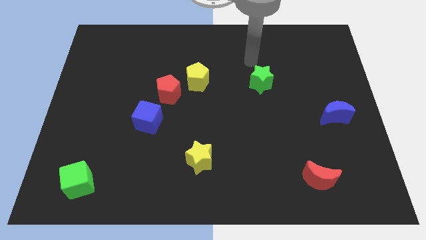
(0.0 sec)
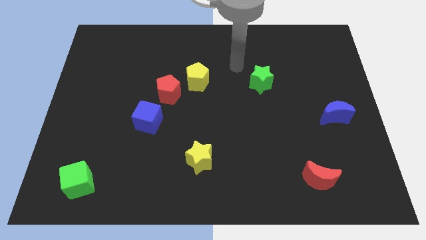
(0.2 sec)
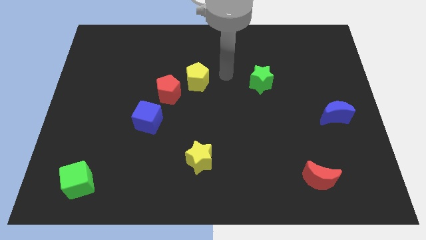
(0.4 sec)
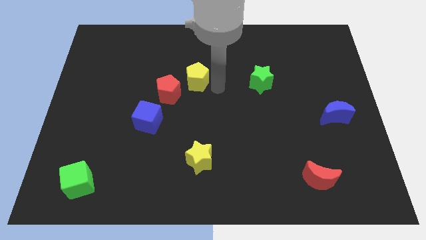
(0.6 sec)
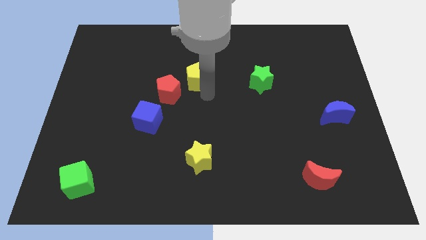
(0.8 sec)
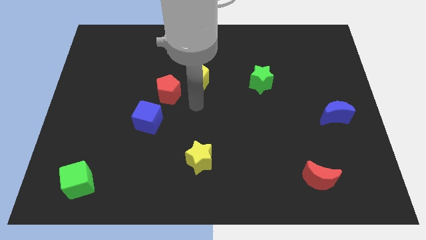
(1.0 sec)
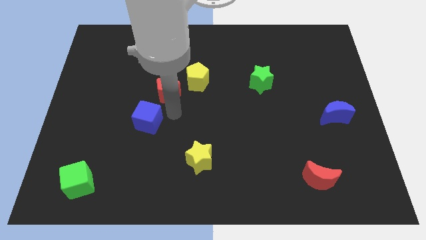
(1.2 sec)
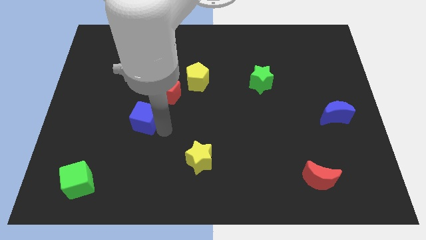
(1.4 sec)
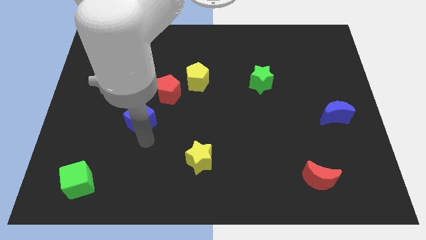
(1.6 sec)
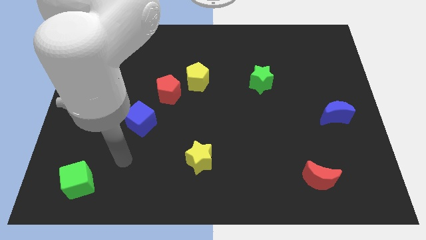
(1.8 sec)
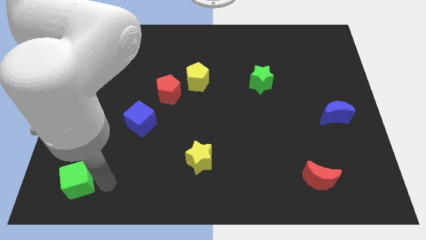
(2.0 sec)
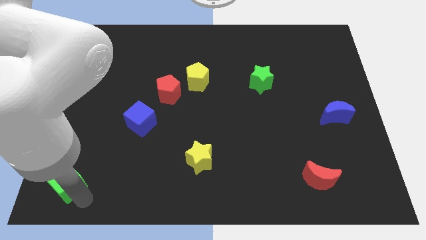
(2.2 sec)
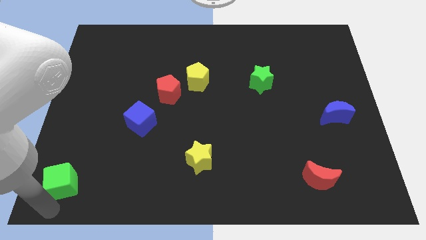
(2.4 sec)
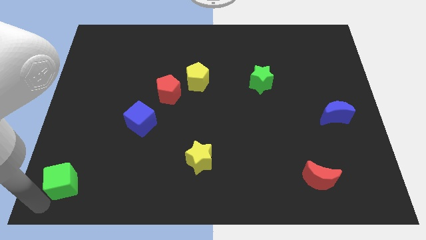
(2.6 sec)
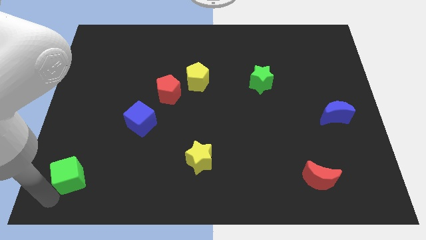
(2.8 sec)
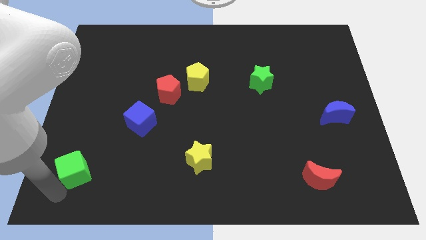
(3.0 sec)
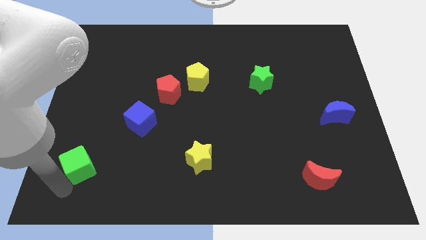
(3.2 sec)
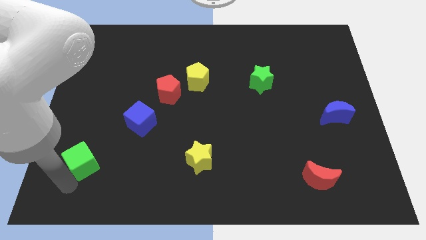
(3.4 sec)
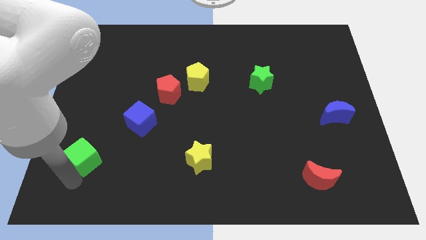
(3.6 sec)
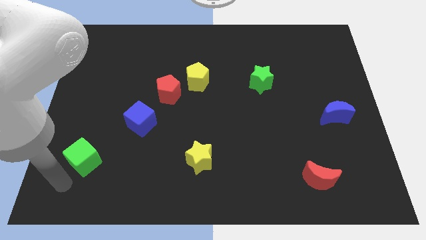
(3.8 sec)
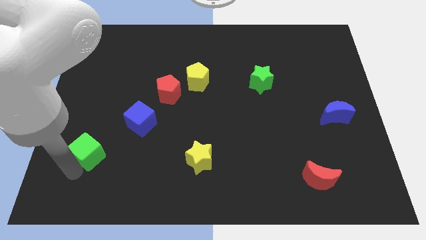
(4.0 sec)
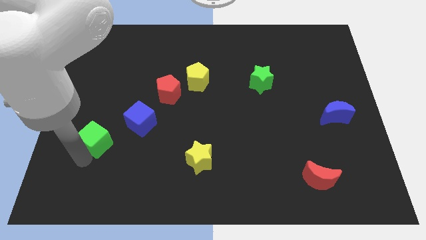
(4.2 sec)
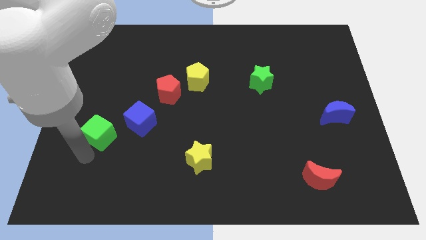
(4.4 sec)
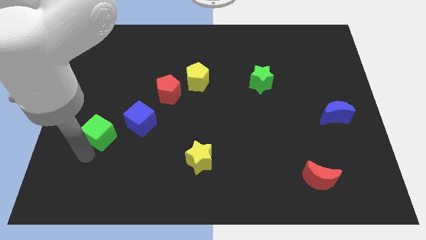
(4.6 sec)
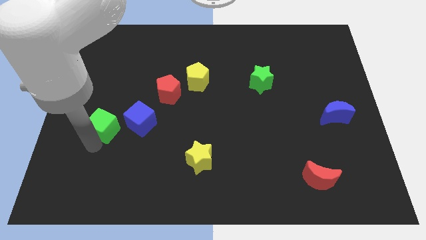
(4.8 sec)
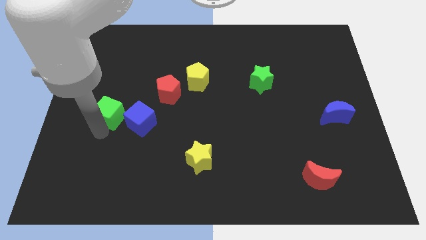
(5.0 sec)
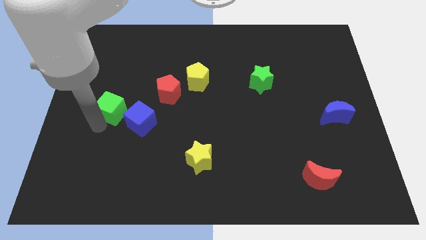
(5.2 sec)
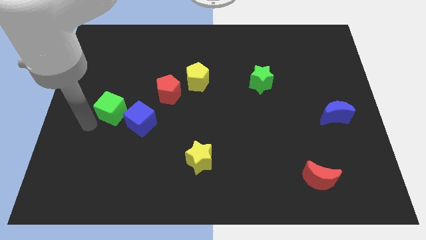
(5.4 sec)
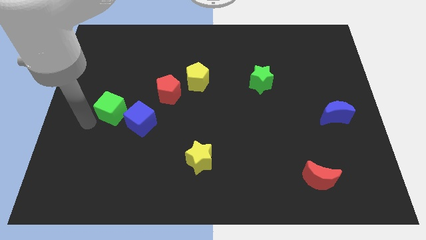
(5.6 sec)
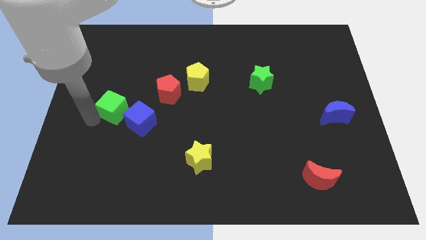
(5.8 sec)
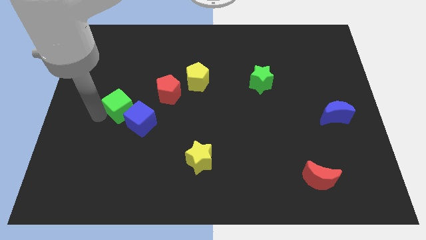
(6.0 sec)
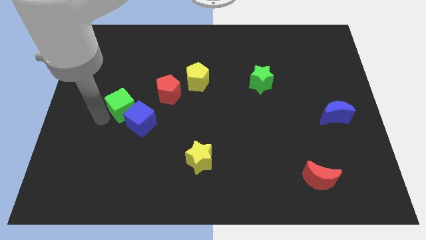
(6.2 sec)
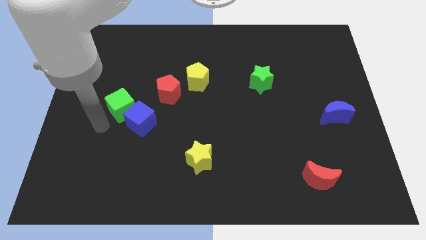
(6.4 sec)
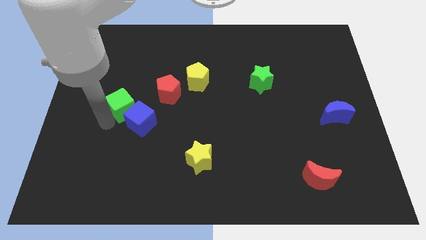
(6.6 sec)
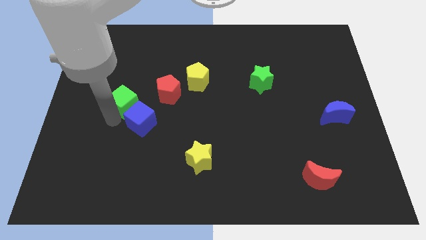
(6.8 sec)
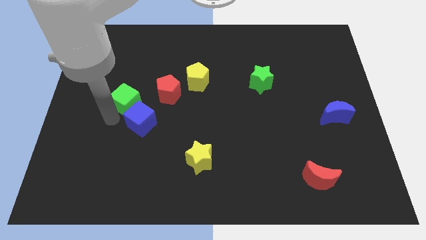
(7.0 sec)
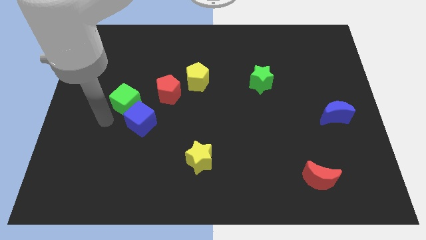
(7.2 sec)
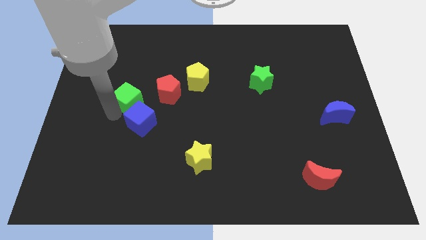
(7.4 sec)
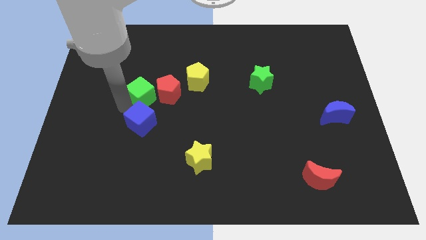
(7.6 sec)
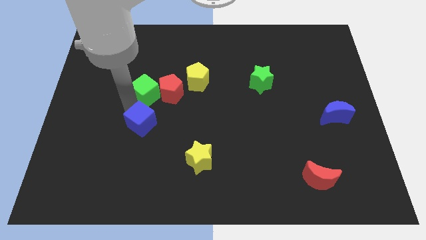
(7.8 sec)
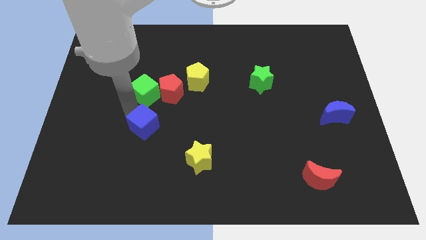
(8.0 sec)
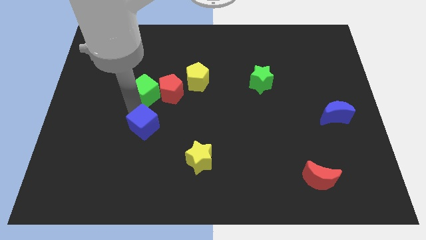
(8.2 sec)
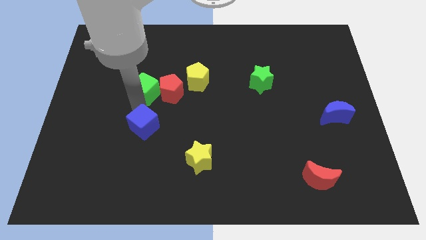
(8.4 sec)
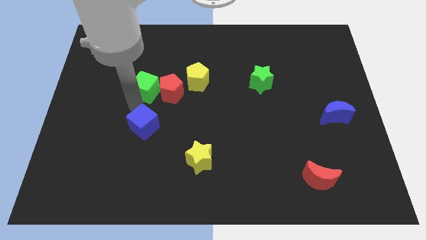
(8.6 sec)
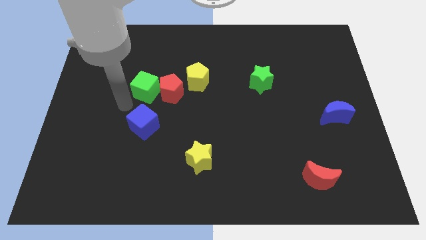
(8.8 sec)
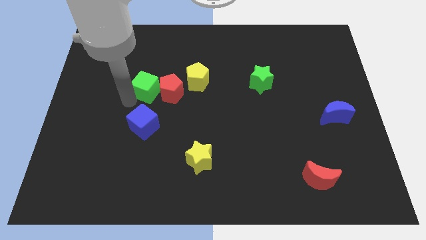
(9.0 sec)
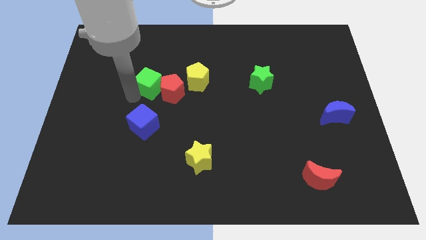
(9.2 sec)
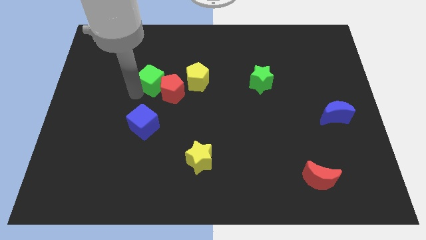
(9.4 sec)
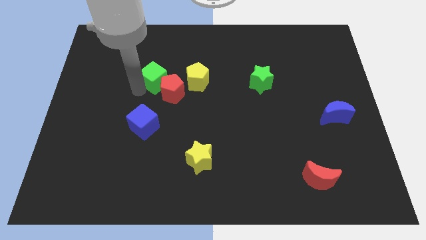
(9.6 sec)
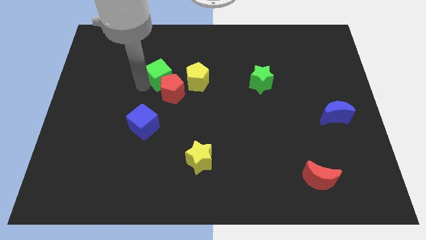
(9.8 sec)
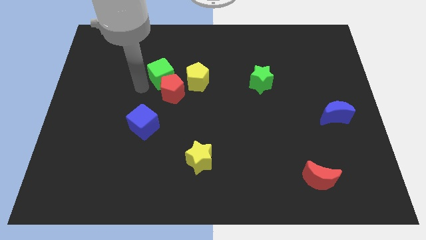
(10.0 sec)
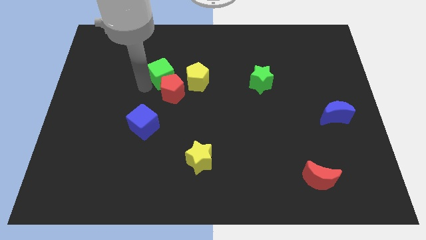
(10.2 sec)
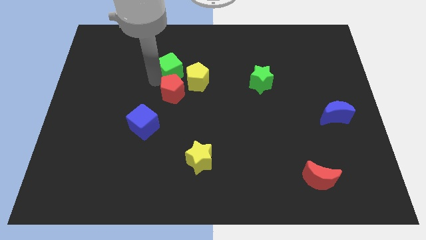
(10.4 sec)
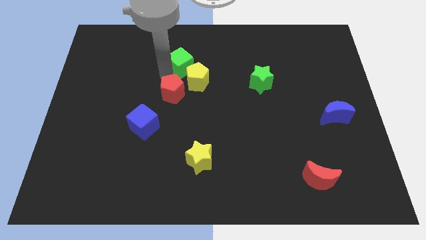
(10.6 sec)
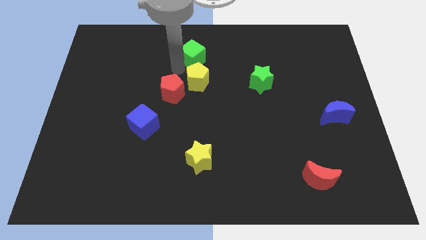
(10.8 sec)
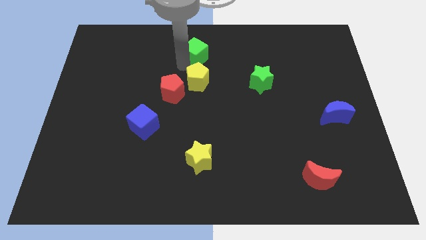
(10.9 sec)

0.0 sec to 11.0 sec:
move the green cube to the towards your base

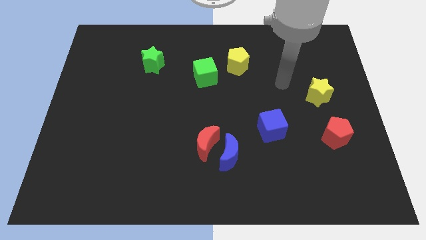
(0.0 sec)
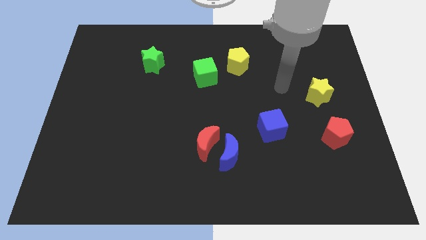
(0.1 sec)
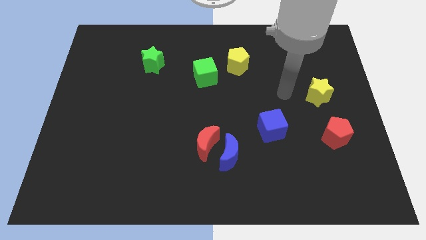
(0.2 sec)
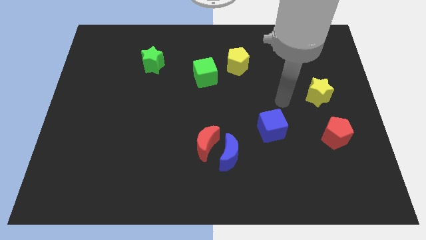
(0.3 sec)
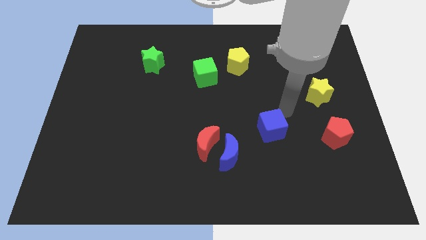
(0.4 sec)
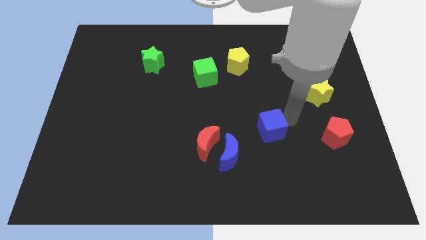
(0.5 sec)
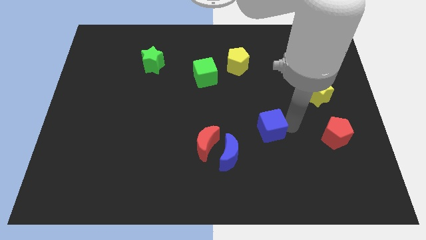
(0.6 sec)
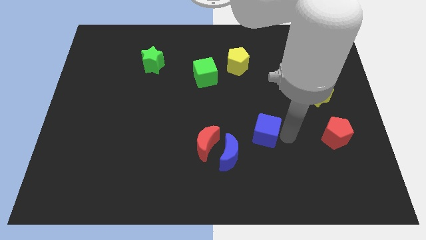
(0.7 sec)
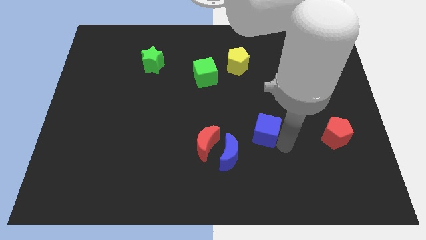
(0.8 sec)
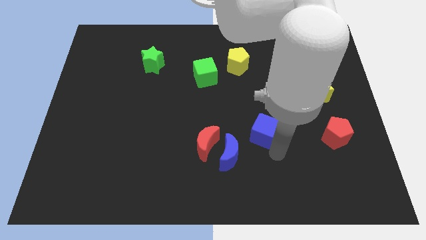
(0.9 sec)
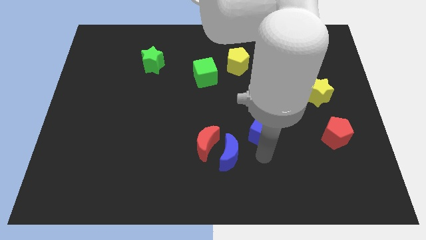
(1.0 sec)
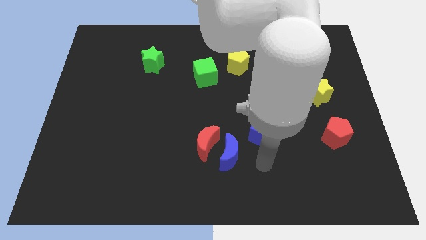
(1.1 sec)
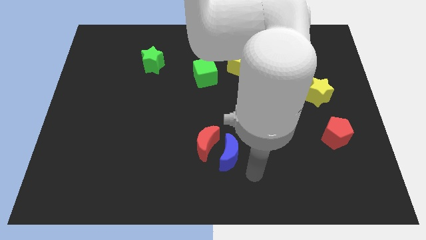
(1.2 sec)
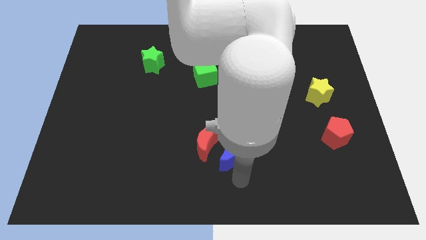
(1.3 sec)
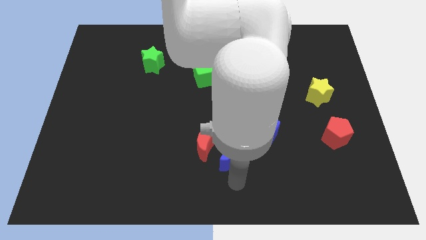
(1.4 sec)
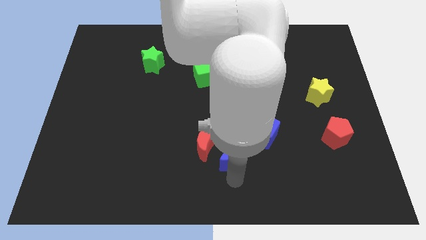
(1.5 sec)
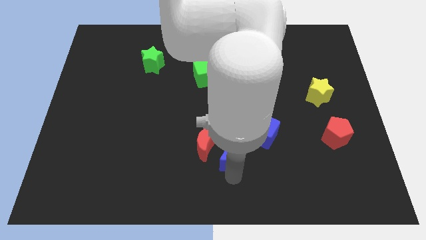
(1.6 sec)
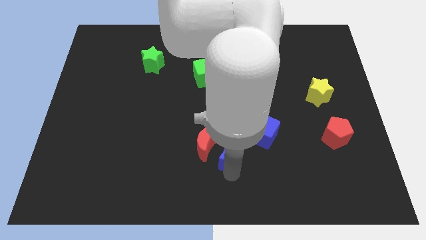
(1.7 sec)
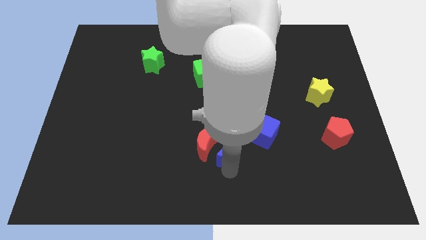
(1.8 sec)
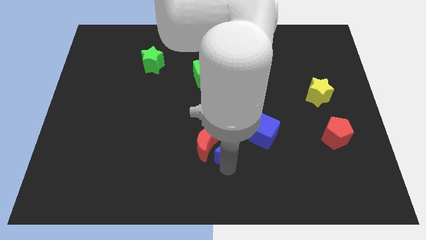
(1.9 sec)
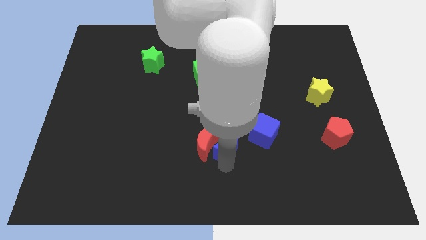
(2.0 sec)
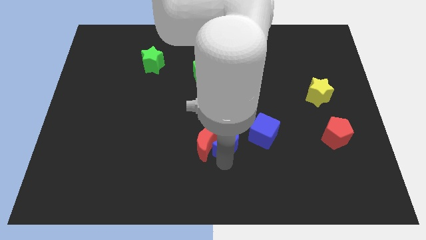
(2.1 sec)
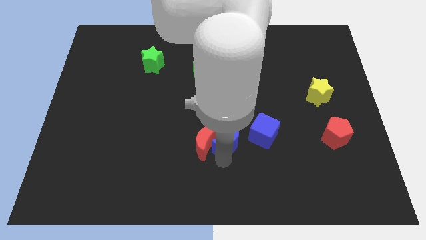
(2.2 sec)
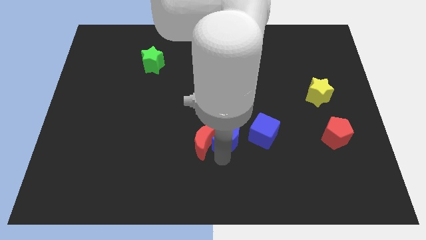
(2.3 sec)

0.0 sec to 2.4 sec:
slide the blue moon to the center
